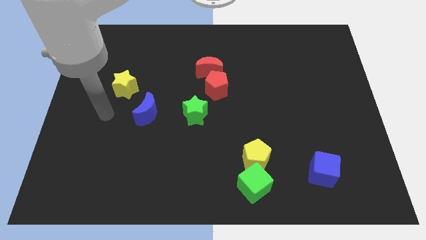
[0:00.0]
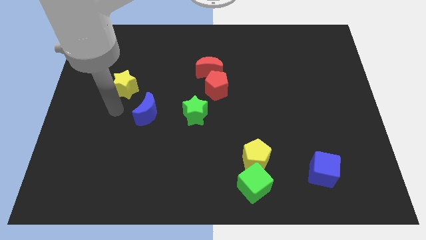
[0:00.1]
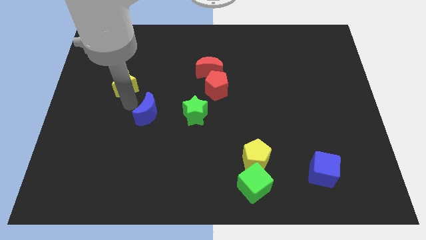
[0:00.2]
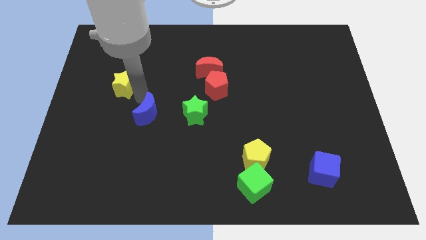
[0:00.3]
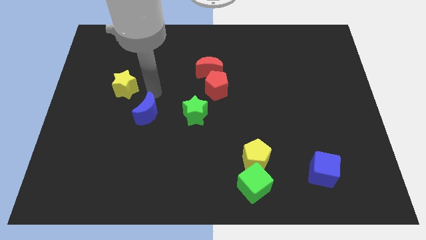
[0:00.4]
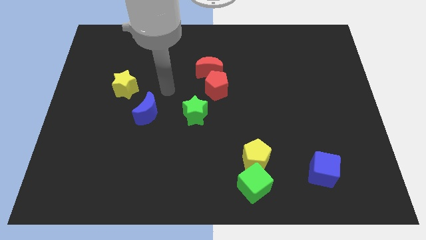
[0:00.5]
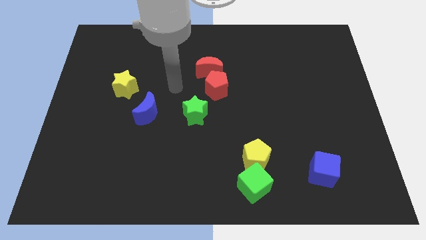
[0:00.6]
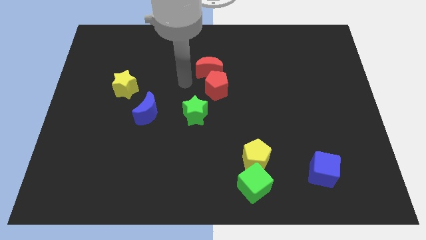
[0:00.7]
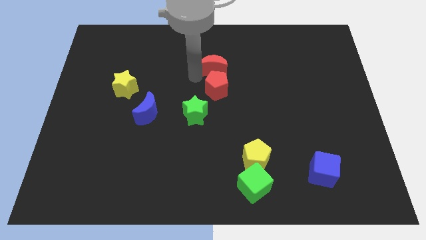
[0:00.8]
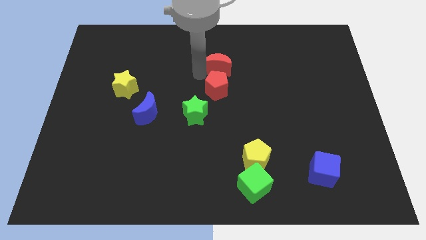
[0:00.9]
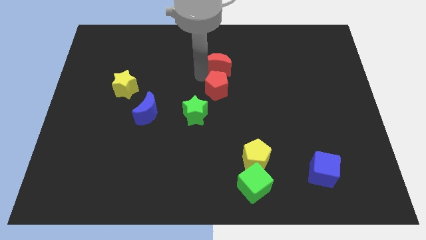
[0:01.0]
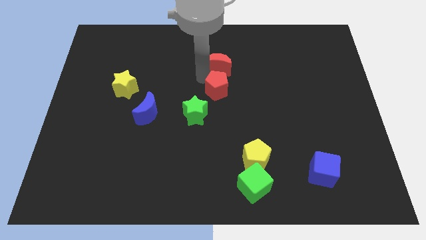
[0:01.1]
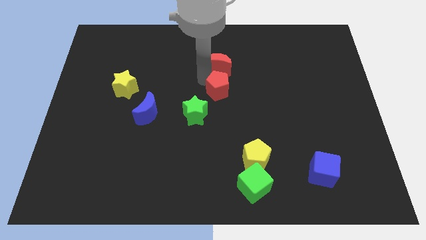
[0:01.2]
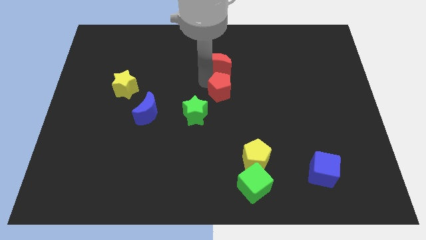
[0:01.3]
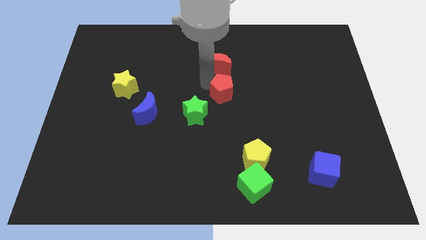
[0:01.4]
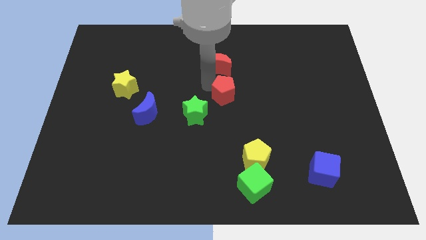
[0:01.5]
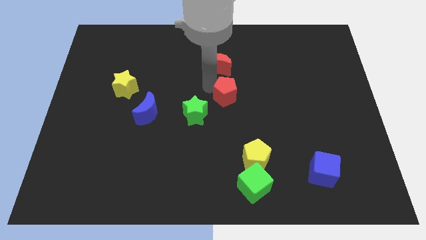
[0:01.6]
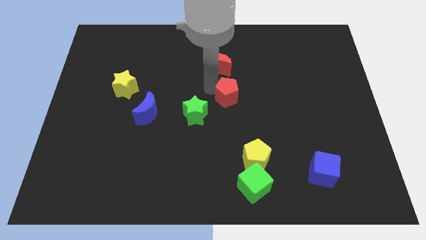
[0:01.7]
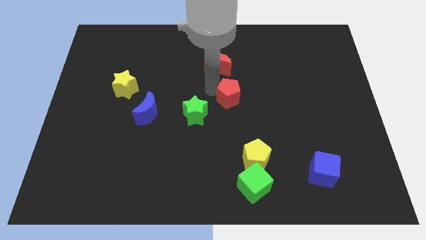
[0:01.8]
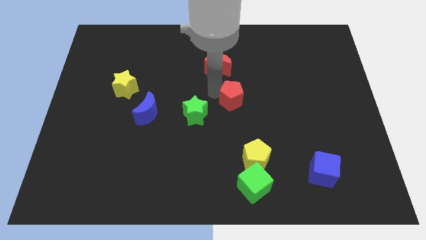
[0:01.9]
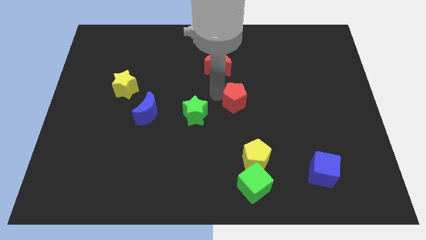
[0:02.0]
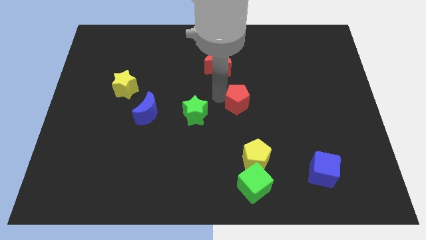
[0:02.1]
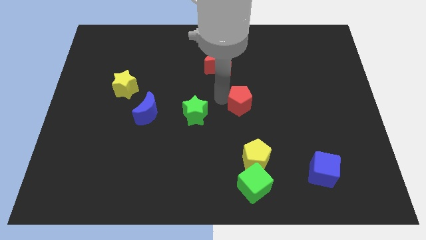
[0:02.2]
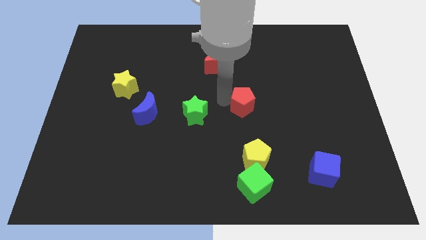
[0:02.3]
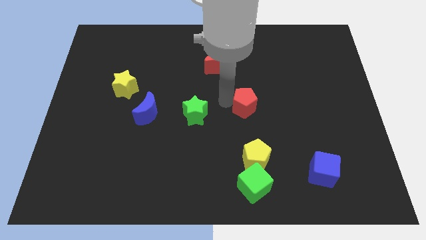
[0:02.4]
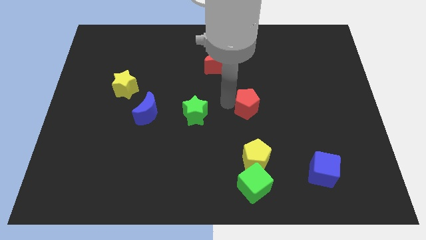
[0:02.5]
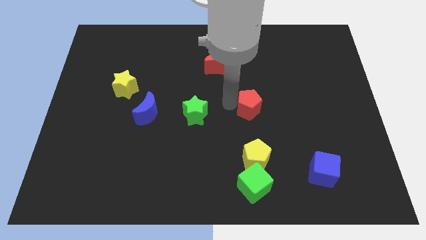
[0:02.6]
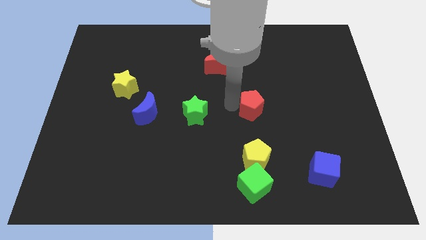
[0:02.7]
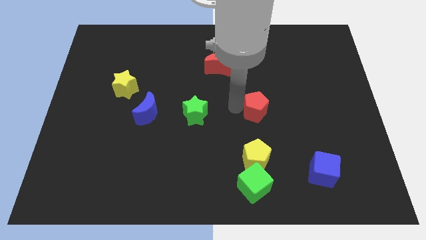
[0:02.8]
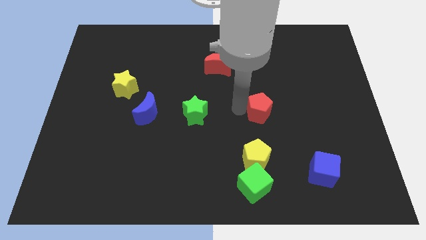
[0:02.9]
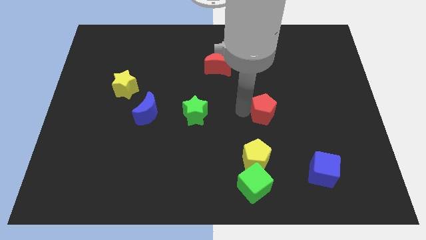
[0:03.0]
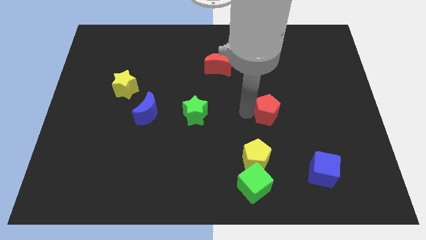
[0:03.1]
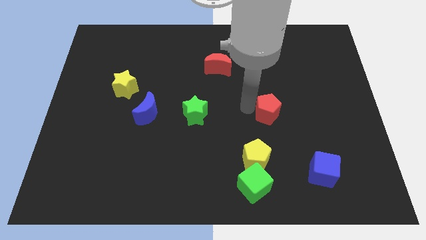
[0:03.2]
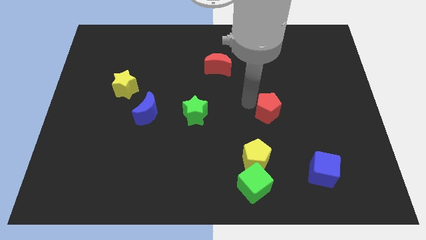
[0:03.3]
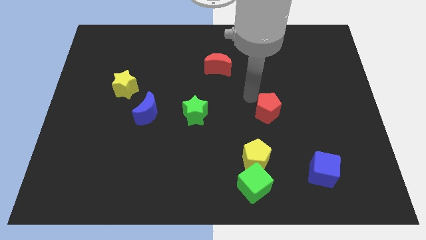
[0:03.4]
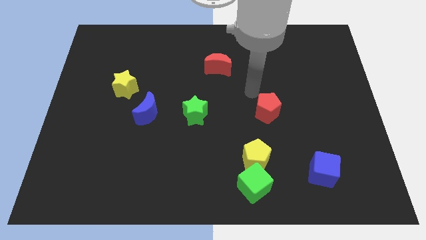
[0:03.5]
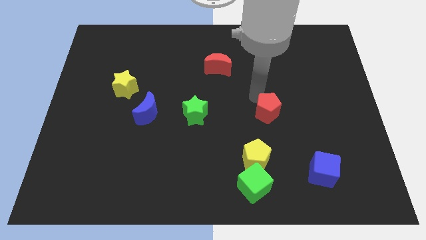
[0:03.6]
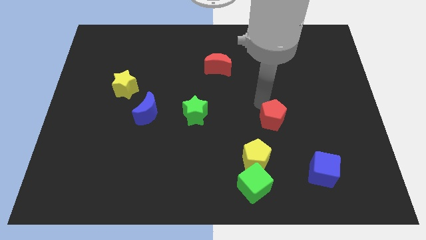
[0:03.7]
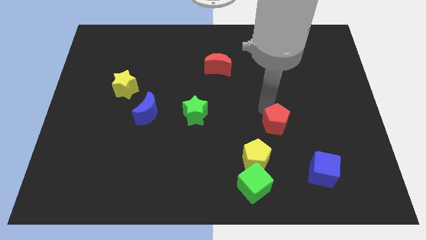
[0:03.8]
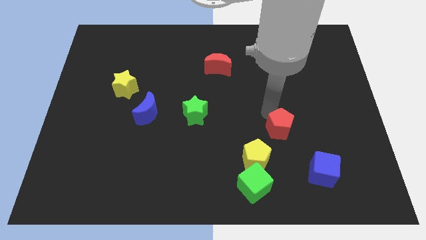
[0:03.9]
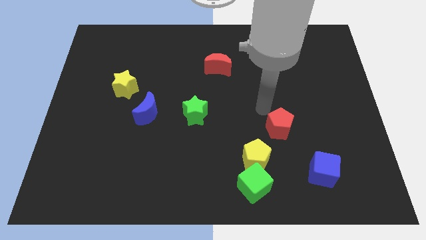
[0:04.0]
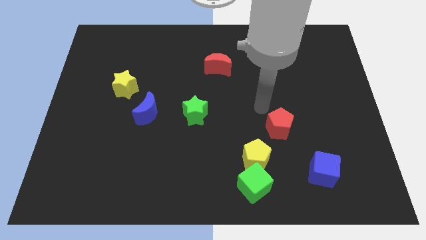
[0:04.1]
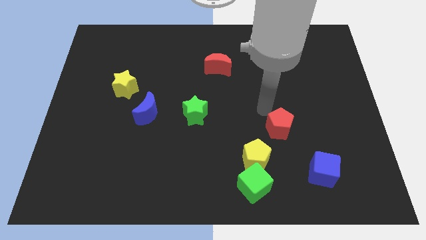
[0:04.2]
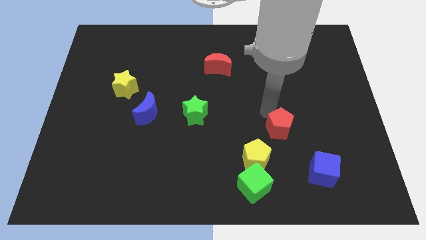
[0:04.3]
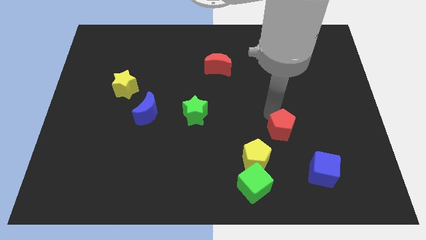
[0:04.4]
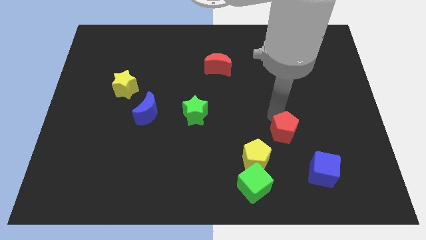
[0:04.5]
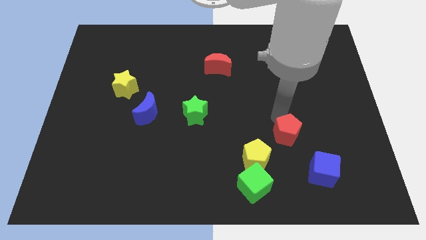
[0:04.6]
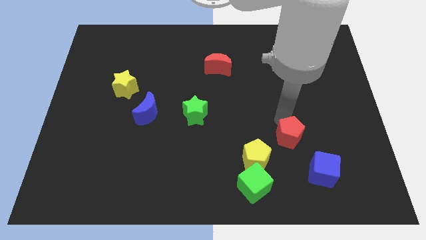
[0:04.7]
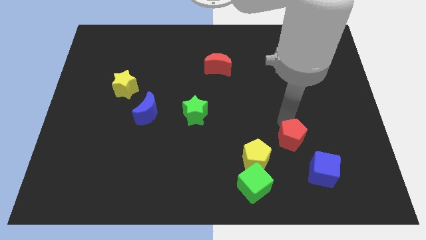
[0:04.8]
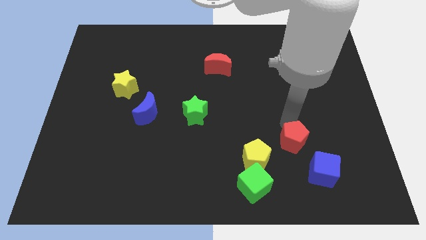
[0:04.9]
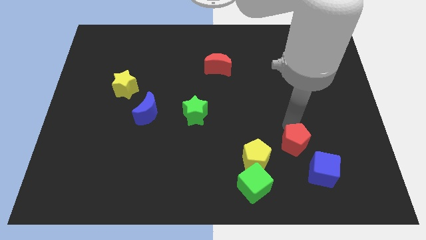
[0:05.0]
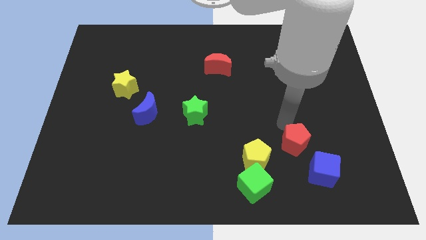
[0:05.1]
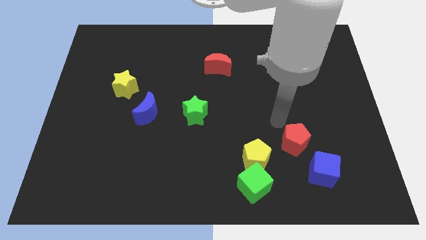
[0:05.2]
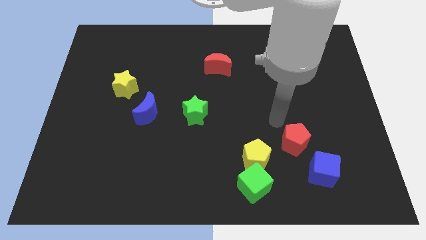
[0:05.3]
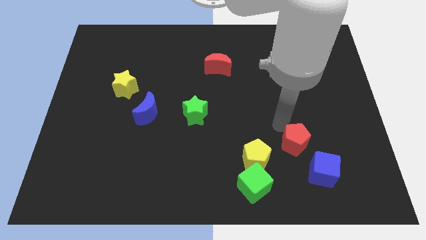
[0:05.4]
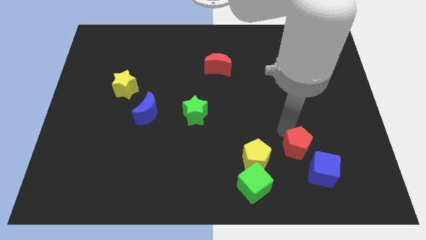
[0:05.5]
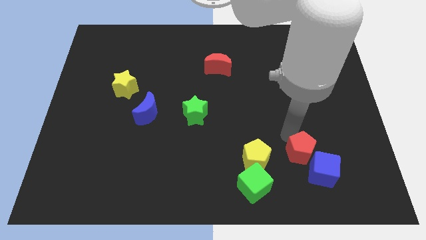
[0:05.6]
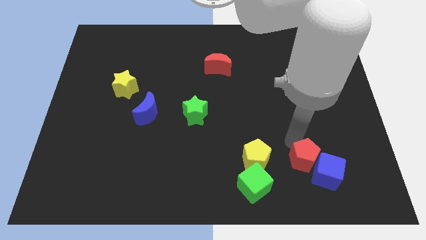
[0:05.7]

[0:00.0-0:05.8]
push the red pentagon to the blue cube

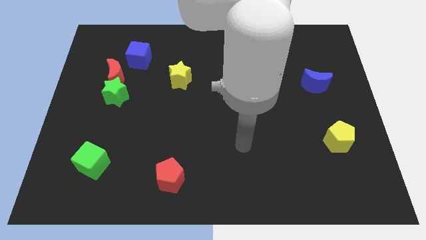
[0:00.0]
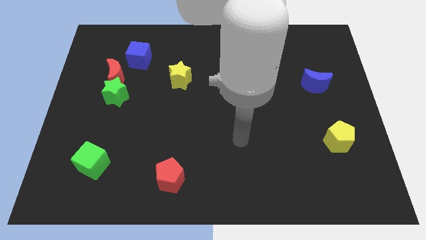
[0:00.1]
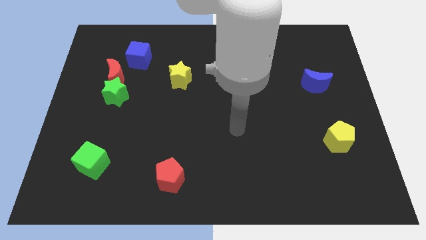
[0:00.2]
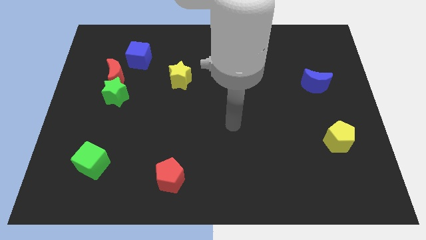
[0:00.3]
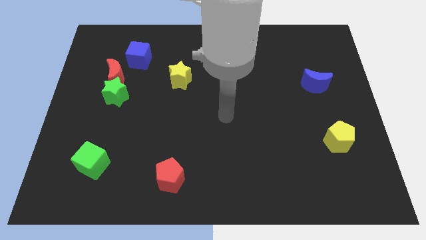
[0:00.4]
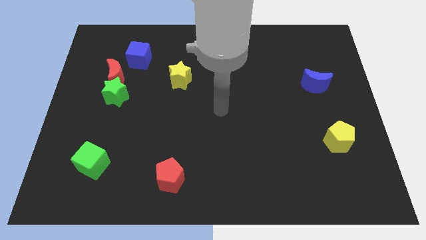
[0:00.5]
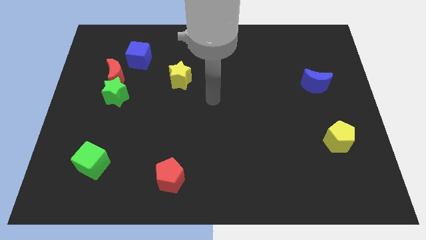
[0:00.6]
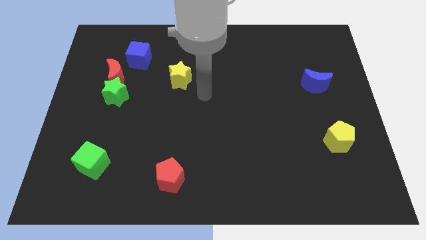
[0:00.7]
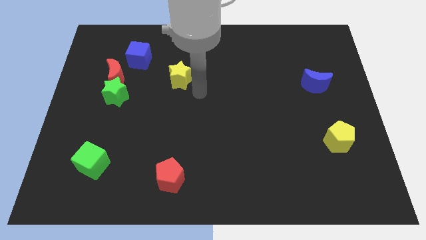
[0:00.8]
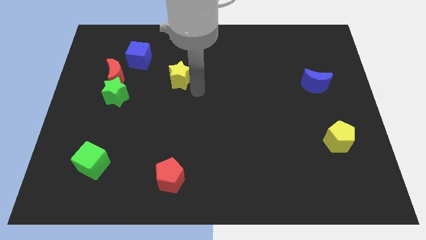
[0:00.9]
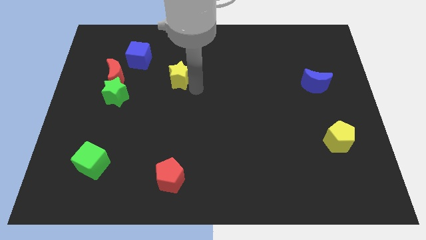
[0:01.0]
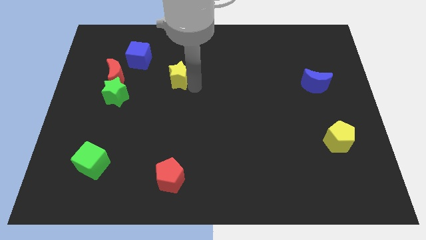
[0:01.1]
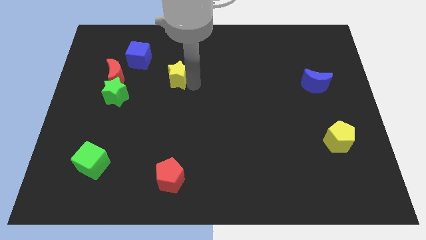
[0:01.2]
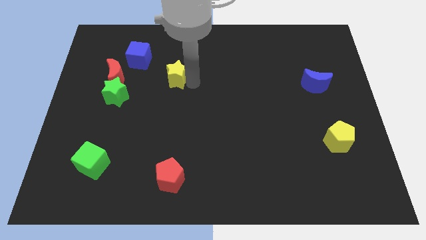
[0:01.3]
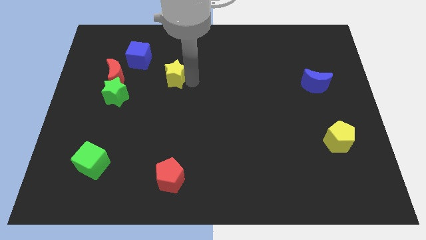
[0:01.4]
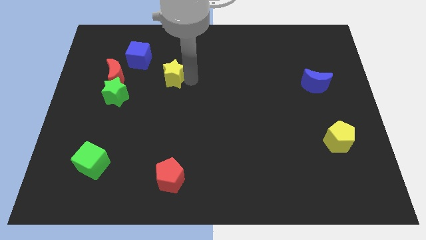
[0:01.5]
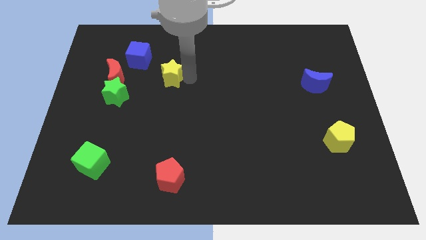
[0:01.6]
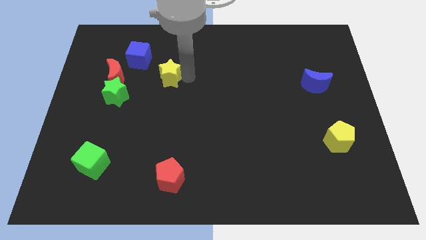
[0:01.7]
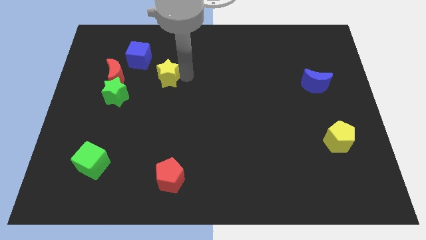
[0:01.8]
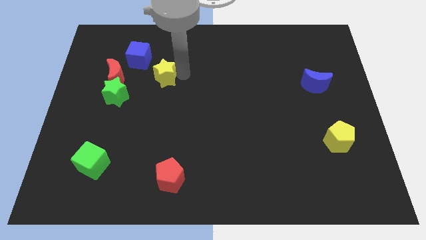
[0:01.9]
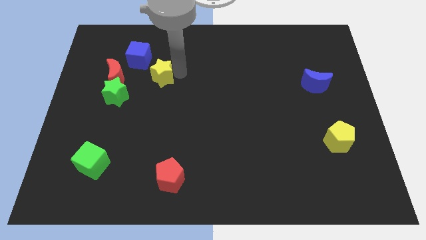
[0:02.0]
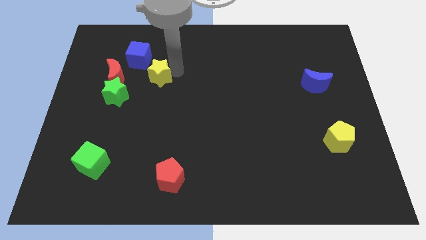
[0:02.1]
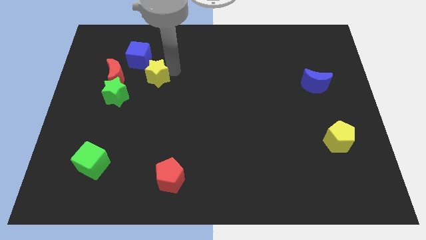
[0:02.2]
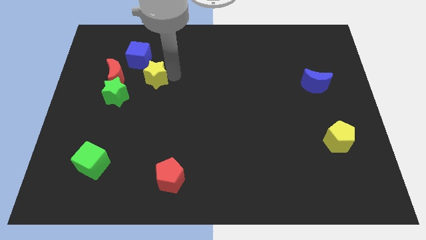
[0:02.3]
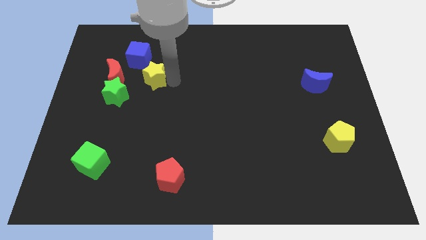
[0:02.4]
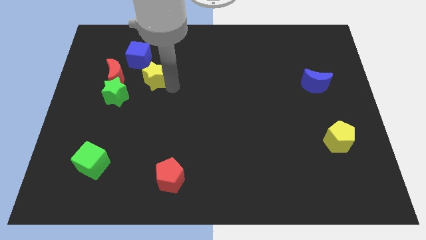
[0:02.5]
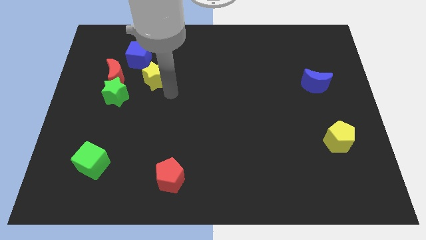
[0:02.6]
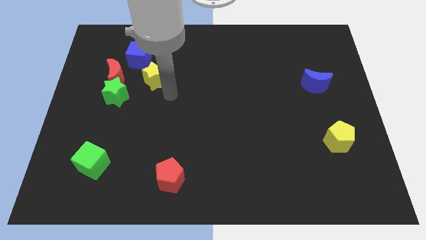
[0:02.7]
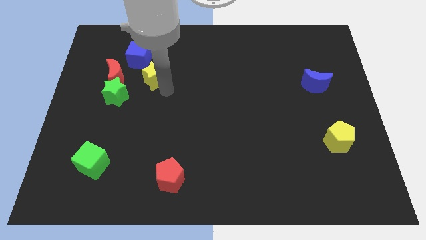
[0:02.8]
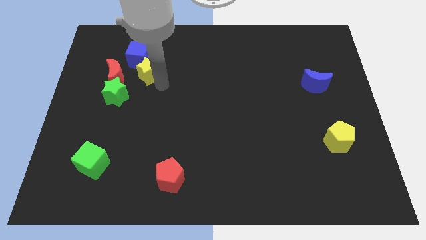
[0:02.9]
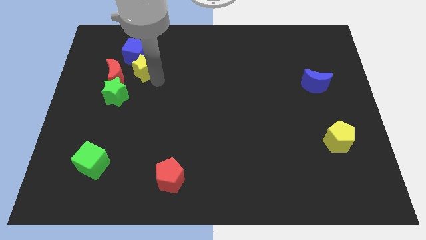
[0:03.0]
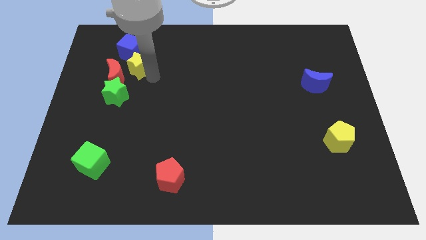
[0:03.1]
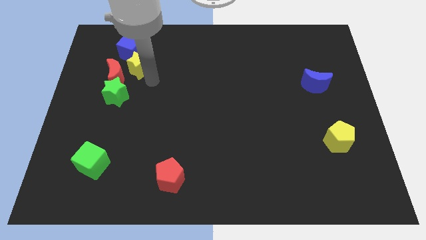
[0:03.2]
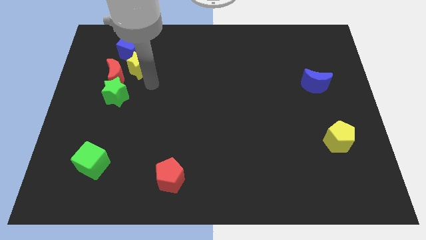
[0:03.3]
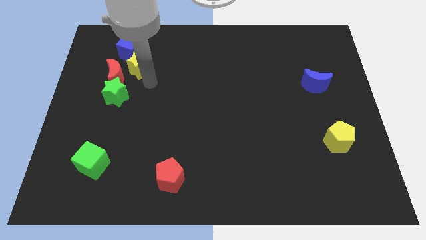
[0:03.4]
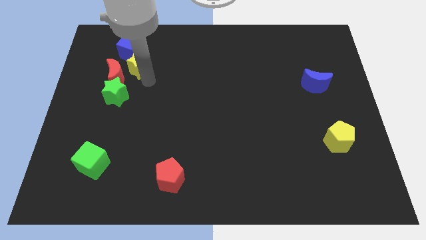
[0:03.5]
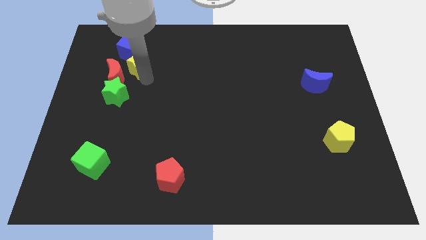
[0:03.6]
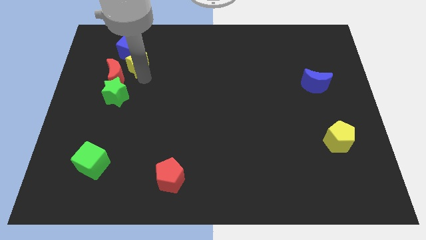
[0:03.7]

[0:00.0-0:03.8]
push the yellow star close to the blue cube
